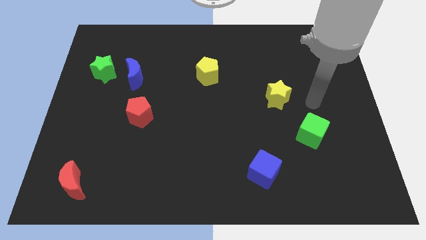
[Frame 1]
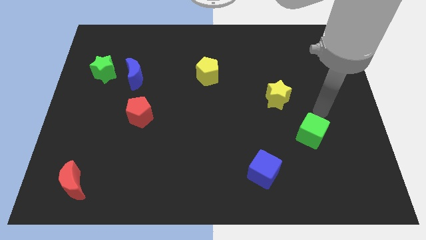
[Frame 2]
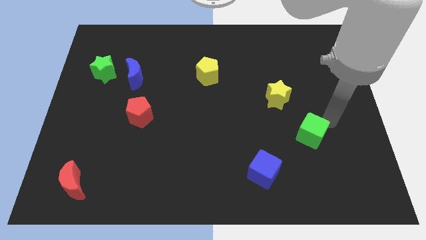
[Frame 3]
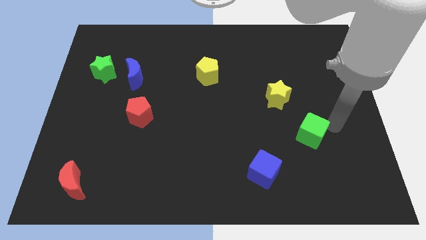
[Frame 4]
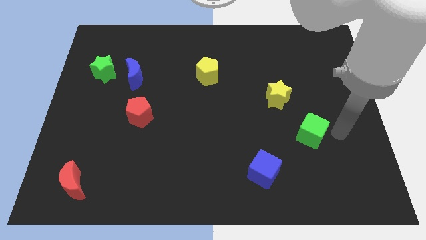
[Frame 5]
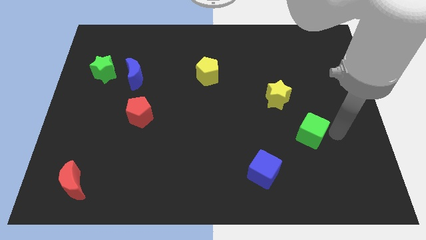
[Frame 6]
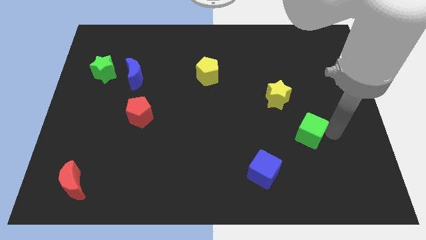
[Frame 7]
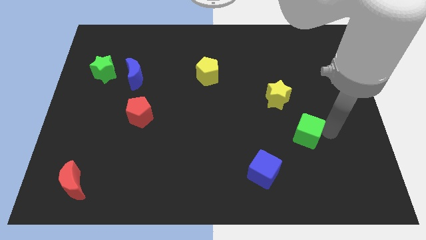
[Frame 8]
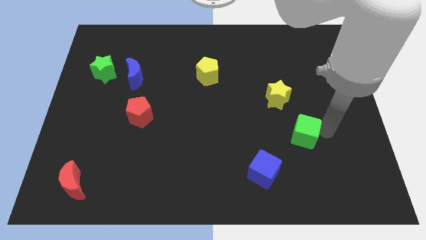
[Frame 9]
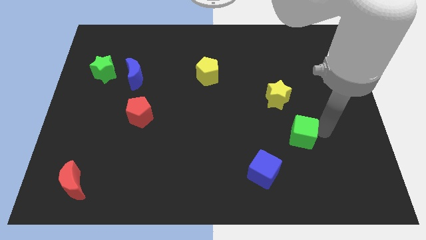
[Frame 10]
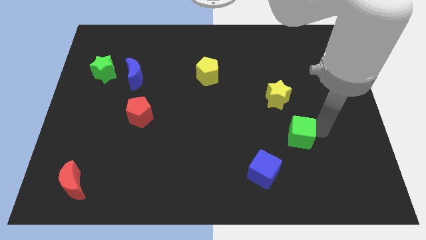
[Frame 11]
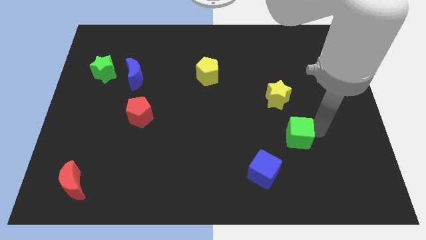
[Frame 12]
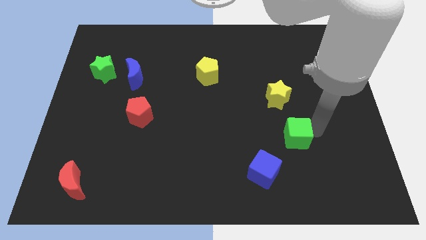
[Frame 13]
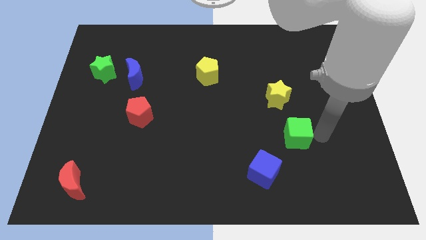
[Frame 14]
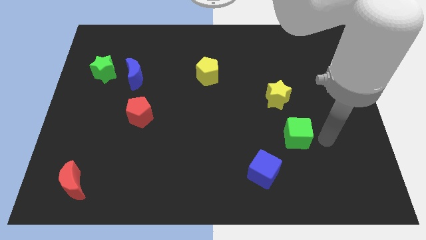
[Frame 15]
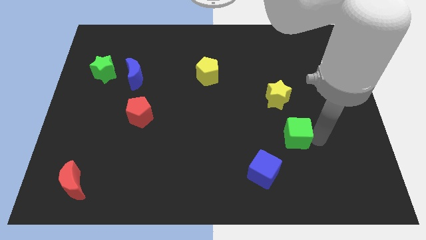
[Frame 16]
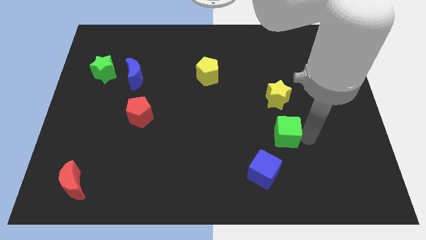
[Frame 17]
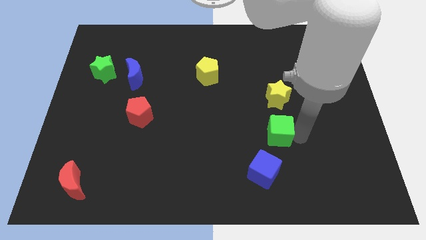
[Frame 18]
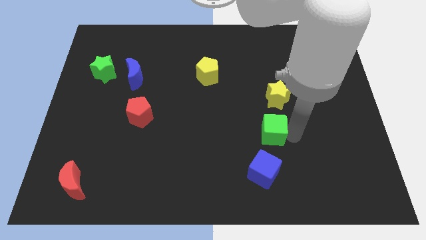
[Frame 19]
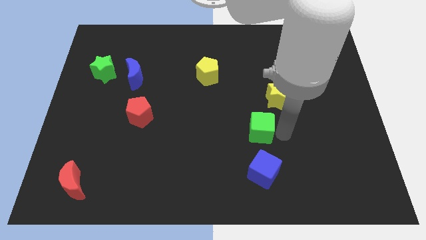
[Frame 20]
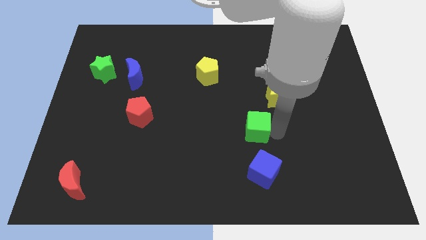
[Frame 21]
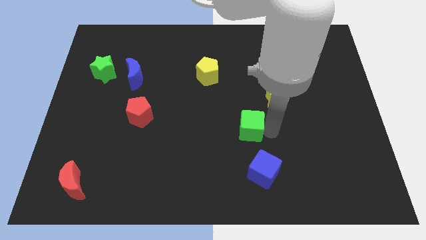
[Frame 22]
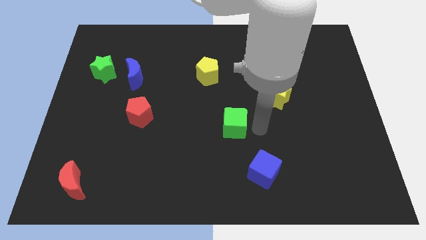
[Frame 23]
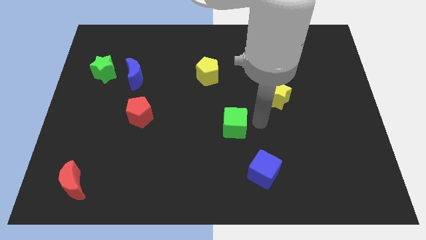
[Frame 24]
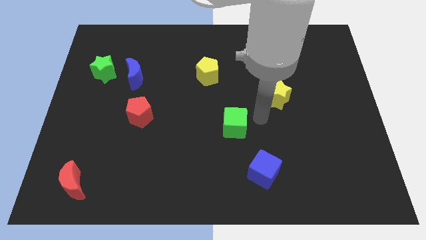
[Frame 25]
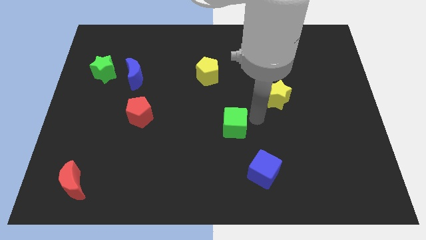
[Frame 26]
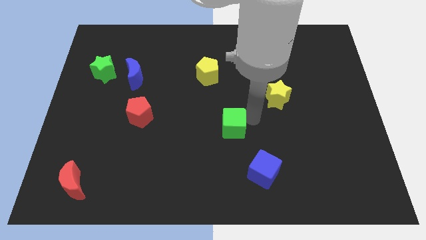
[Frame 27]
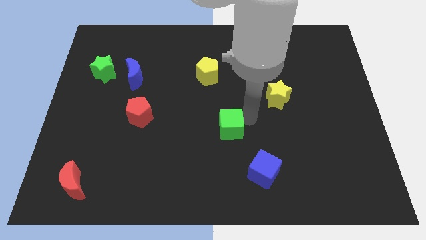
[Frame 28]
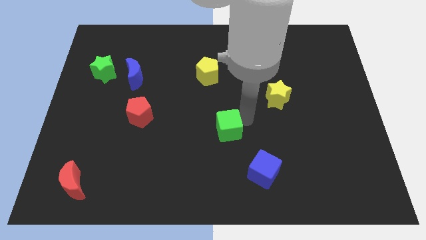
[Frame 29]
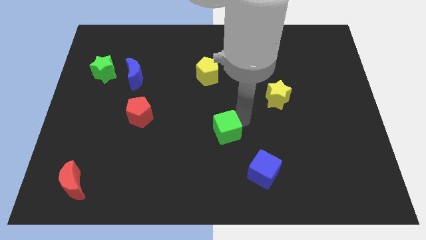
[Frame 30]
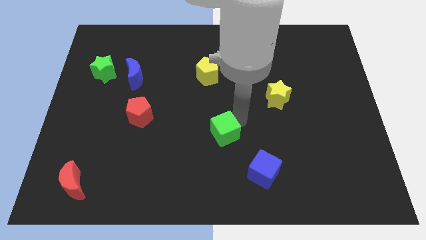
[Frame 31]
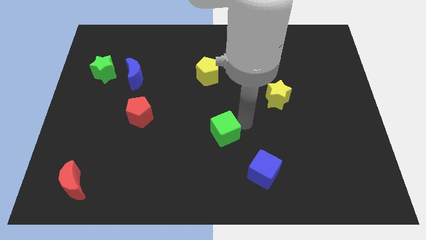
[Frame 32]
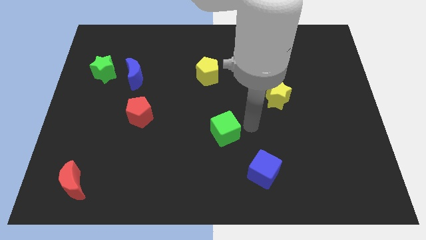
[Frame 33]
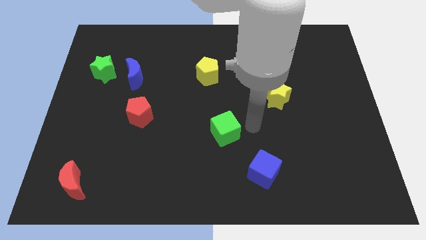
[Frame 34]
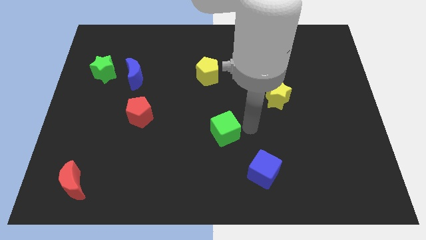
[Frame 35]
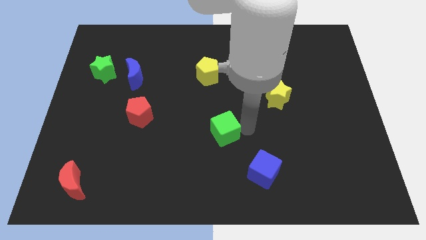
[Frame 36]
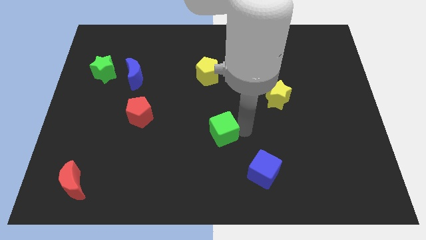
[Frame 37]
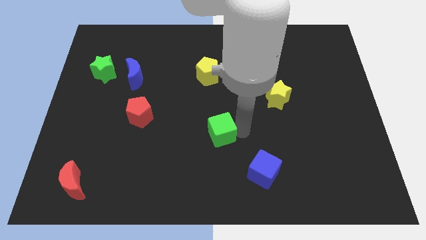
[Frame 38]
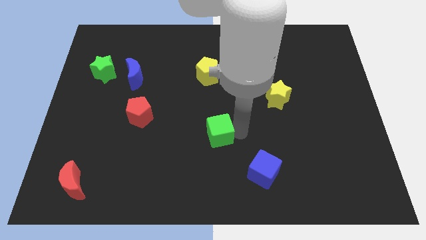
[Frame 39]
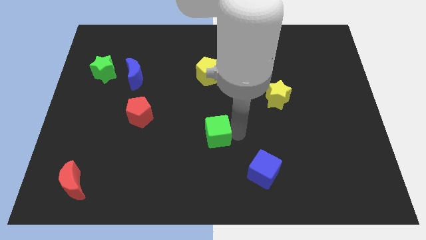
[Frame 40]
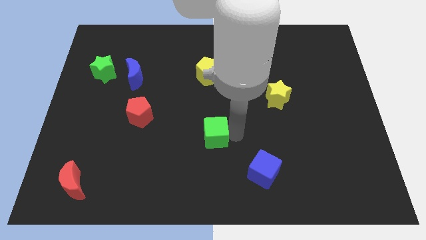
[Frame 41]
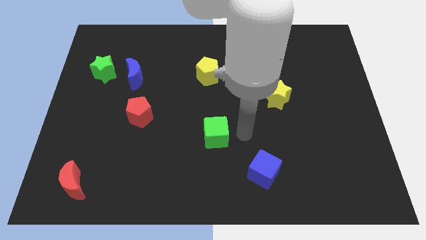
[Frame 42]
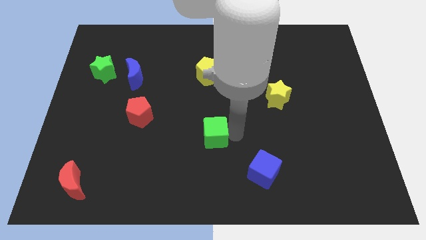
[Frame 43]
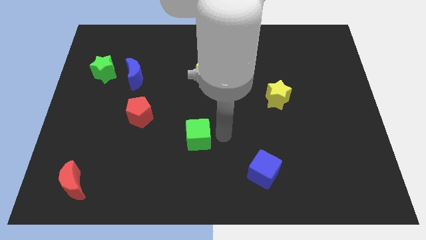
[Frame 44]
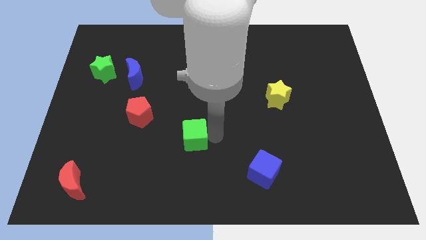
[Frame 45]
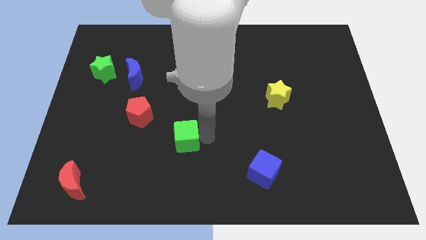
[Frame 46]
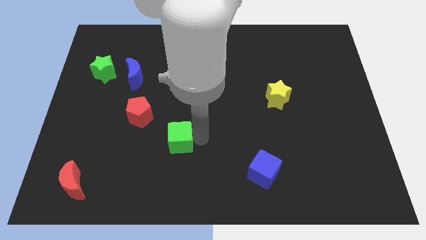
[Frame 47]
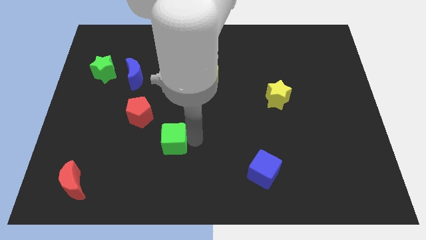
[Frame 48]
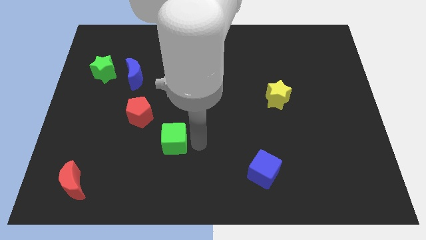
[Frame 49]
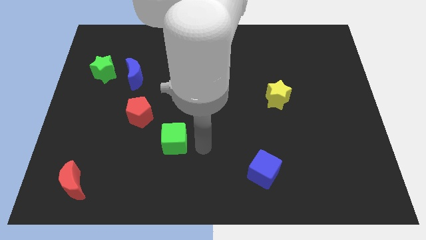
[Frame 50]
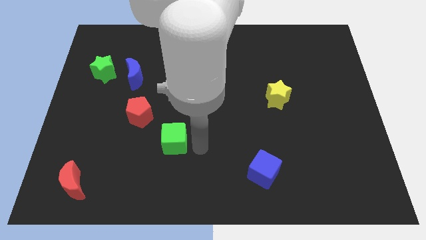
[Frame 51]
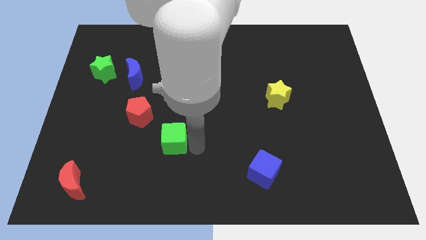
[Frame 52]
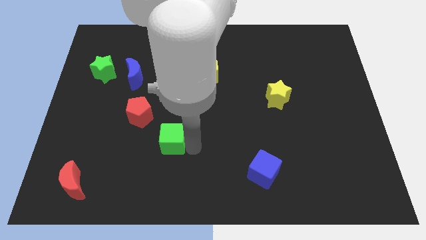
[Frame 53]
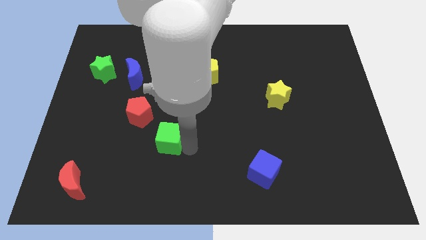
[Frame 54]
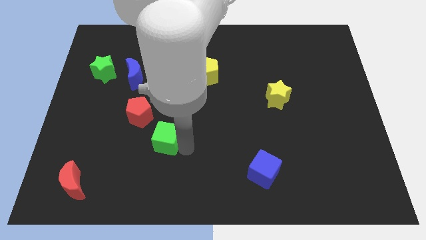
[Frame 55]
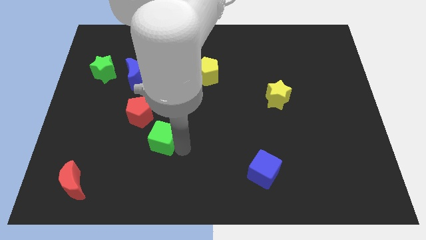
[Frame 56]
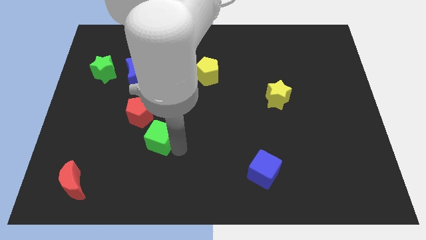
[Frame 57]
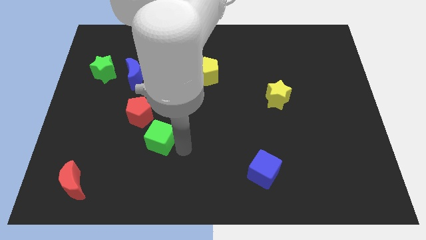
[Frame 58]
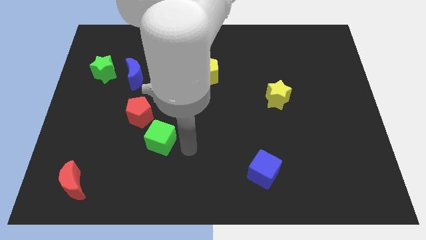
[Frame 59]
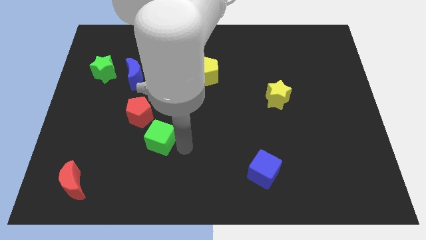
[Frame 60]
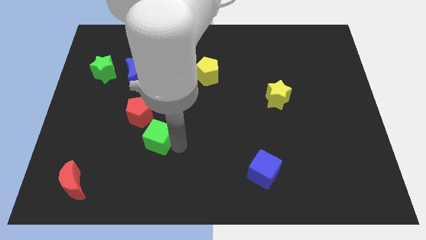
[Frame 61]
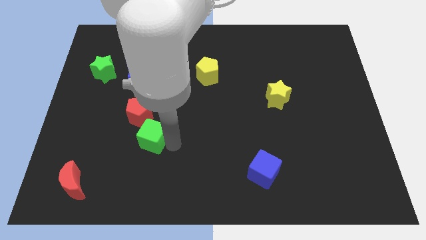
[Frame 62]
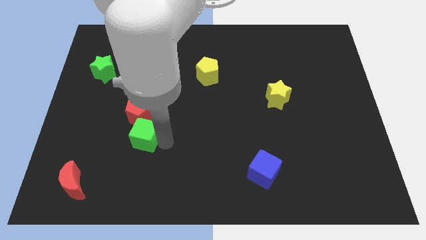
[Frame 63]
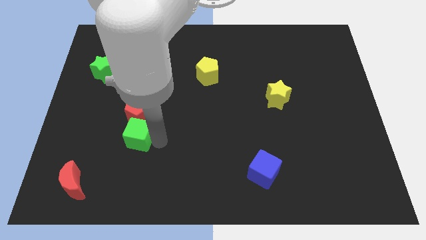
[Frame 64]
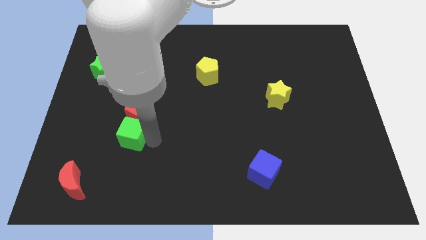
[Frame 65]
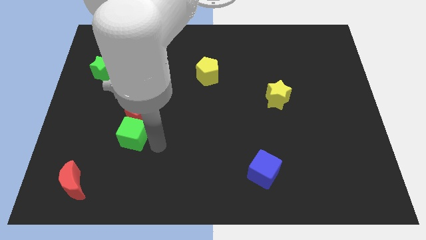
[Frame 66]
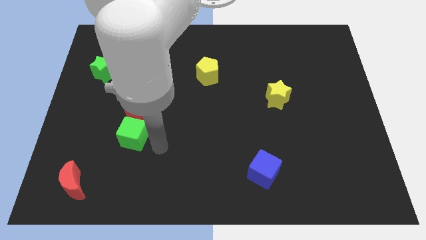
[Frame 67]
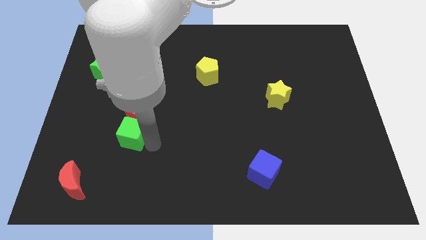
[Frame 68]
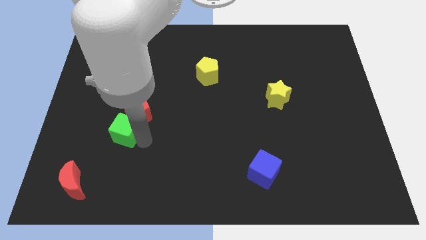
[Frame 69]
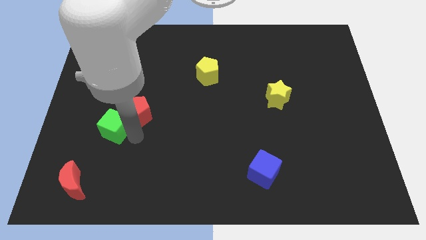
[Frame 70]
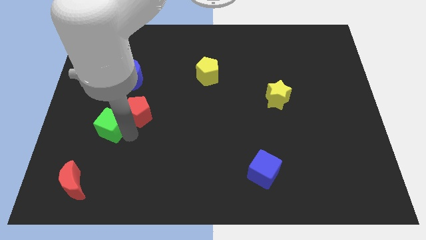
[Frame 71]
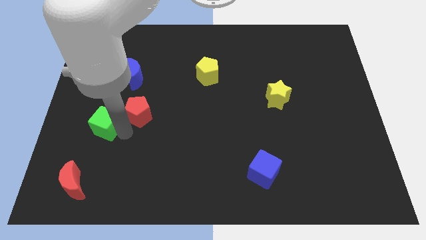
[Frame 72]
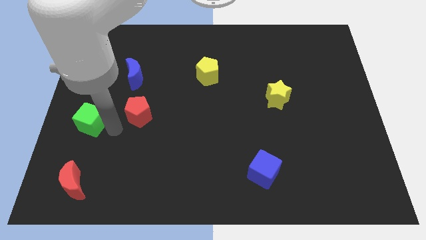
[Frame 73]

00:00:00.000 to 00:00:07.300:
move the green cube to the center left
